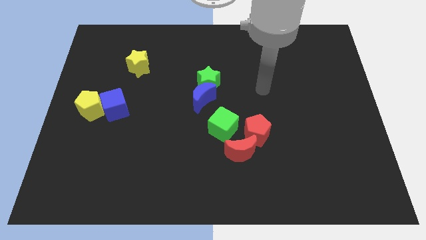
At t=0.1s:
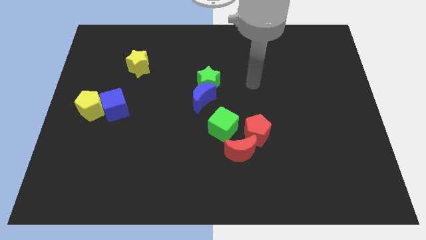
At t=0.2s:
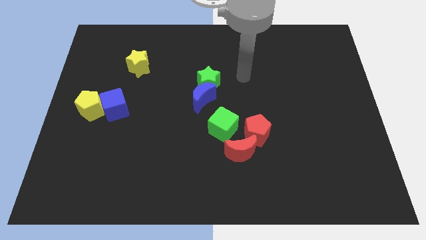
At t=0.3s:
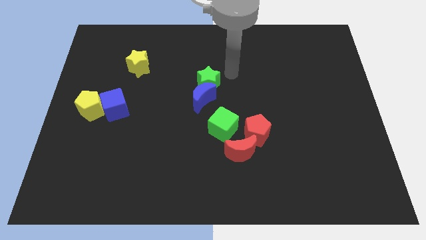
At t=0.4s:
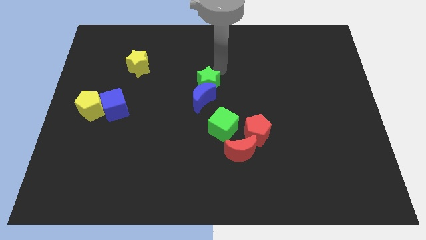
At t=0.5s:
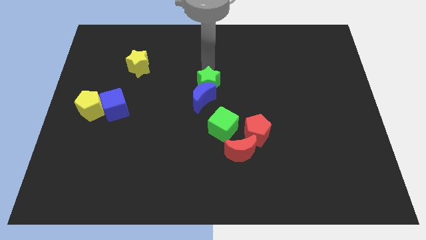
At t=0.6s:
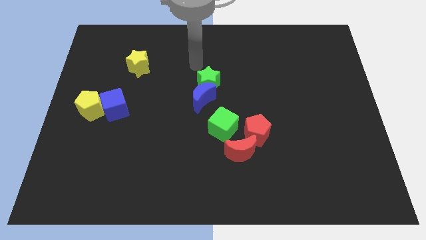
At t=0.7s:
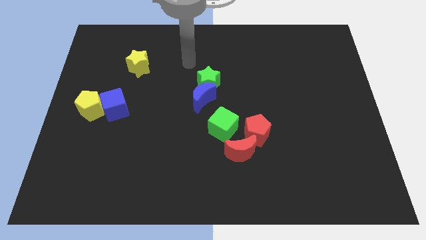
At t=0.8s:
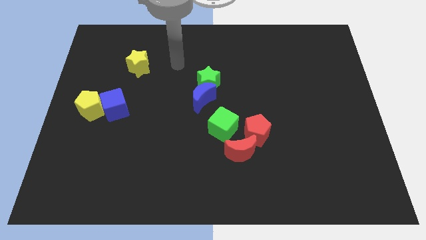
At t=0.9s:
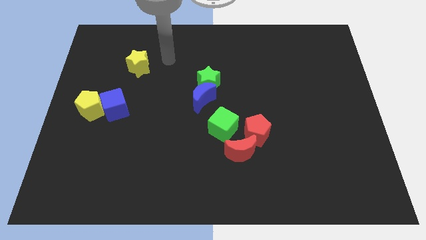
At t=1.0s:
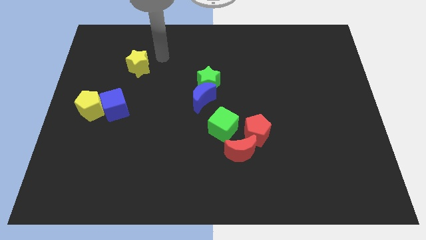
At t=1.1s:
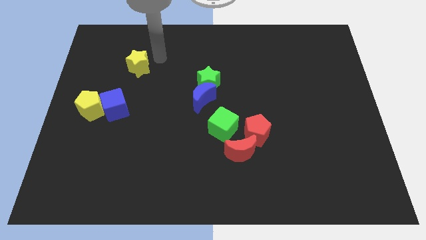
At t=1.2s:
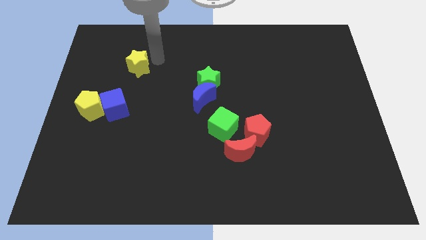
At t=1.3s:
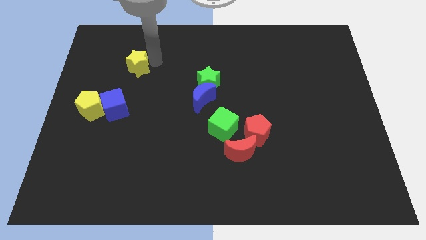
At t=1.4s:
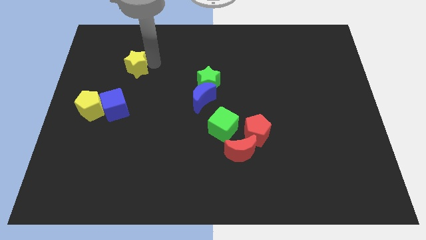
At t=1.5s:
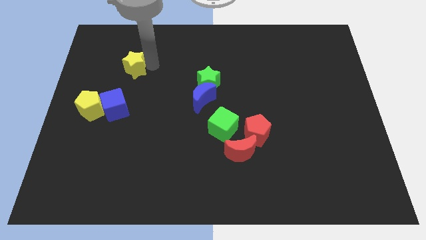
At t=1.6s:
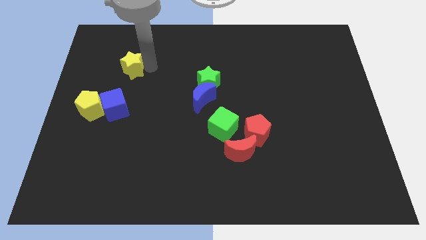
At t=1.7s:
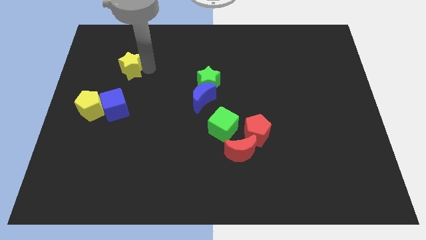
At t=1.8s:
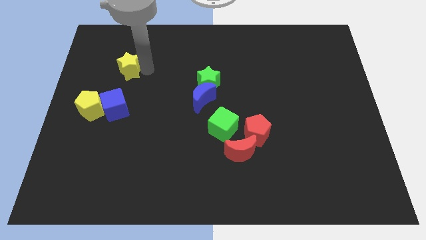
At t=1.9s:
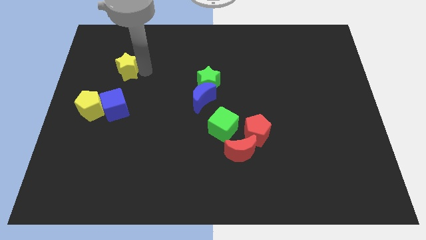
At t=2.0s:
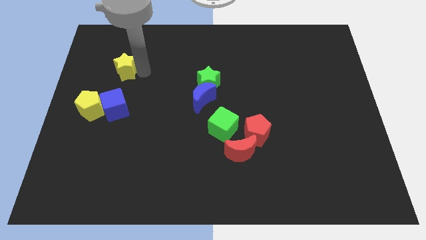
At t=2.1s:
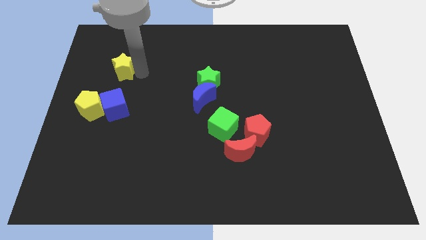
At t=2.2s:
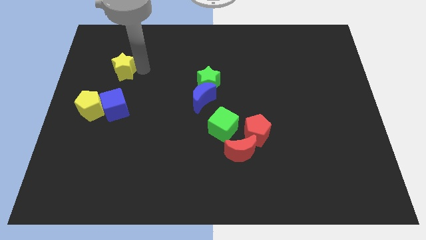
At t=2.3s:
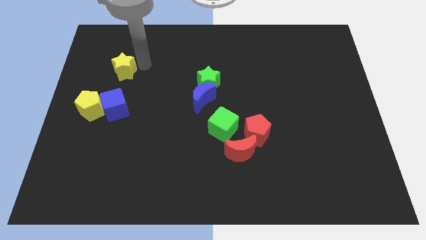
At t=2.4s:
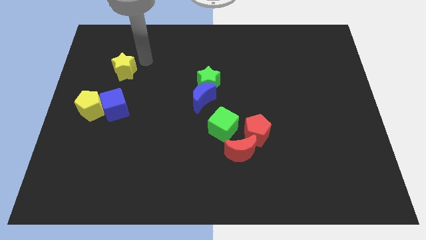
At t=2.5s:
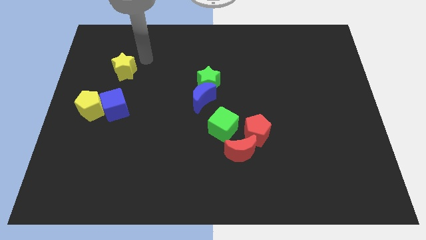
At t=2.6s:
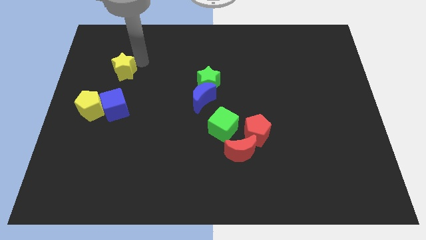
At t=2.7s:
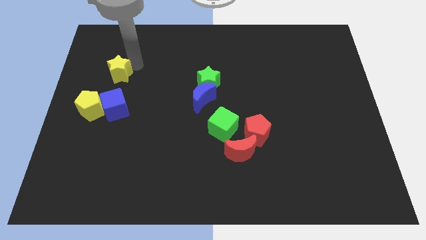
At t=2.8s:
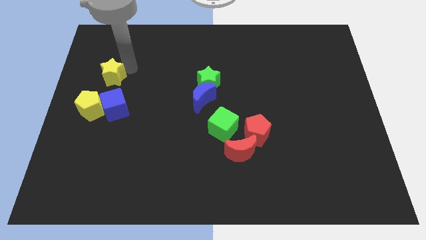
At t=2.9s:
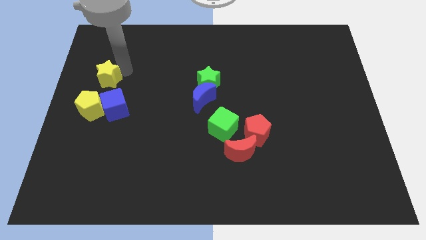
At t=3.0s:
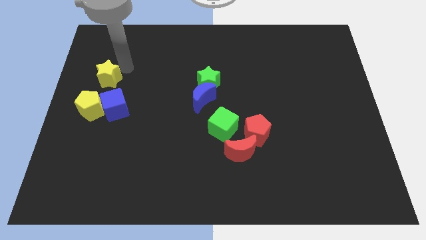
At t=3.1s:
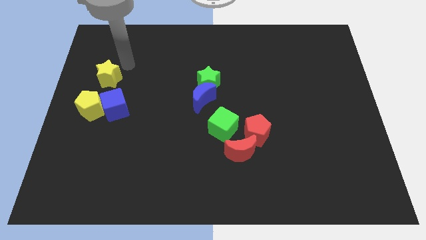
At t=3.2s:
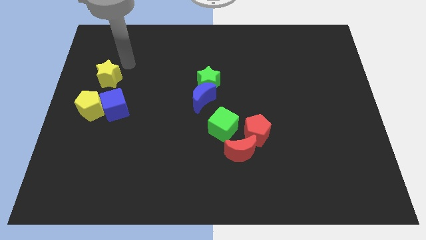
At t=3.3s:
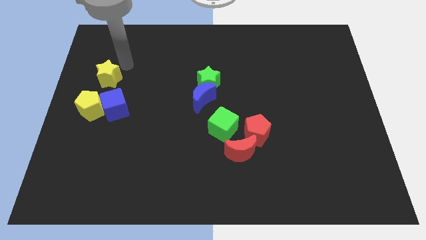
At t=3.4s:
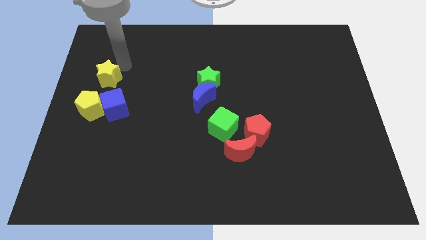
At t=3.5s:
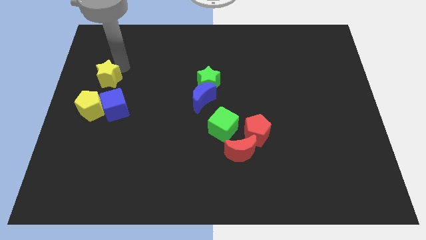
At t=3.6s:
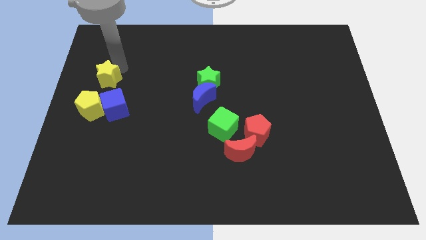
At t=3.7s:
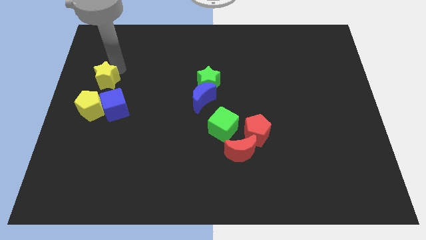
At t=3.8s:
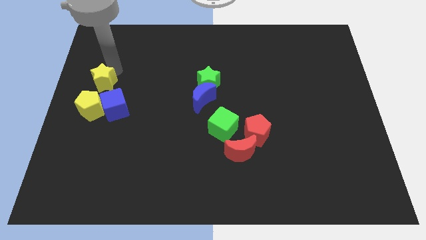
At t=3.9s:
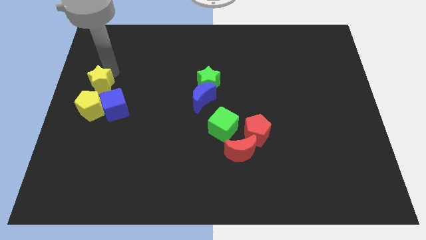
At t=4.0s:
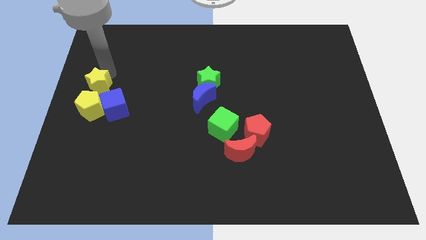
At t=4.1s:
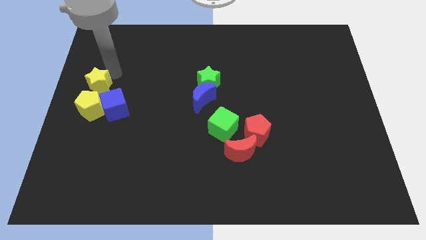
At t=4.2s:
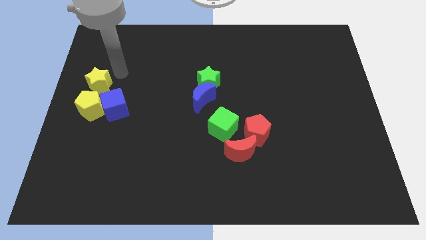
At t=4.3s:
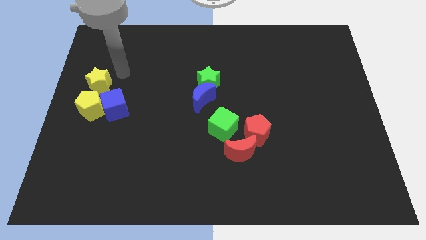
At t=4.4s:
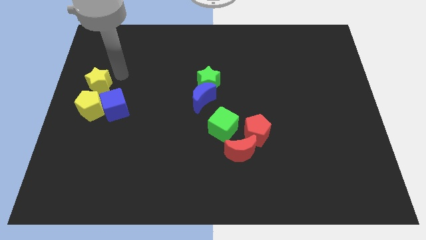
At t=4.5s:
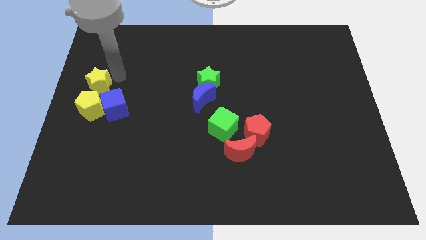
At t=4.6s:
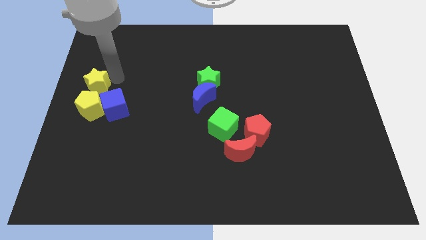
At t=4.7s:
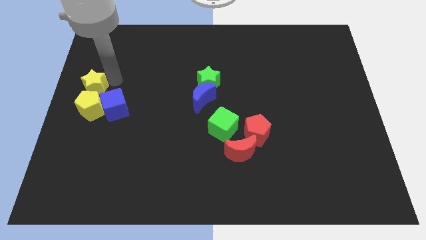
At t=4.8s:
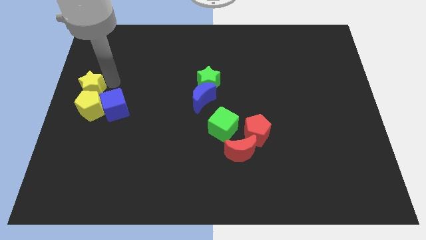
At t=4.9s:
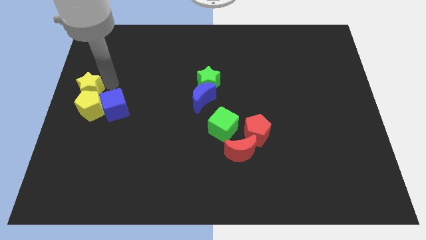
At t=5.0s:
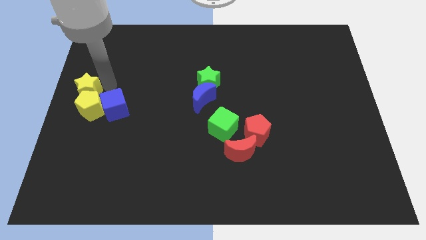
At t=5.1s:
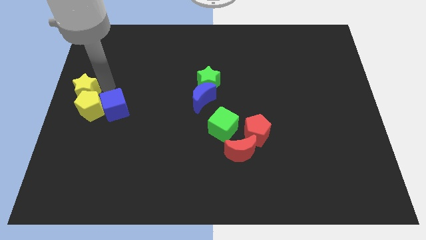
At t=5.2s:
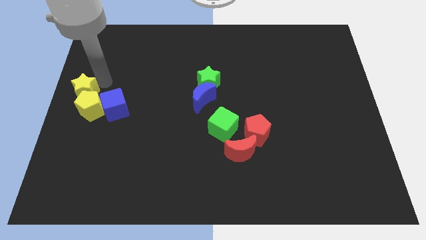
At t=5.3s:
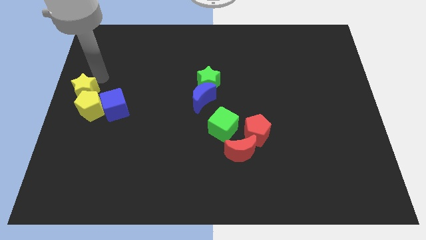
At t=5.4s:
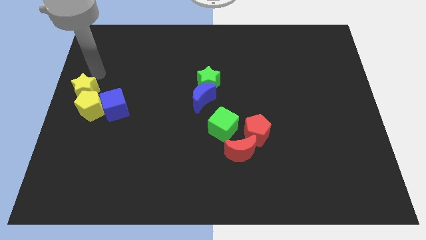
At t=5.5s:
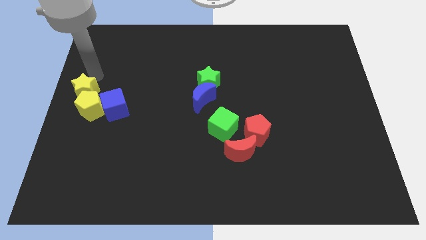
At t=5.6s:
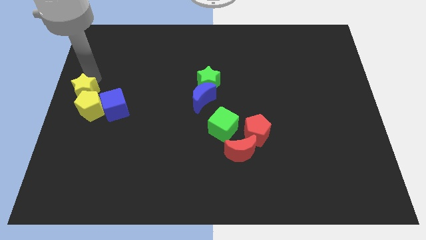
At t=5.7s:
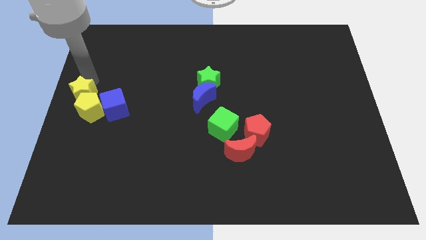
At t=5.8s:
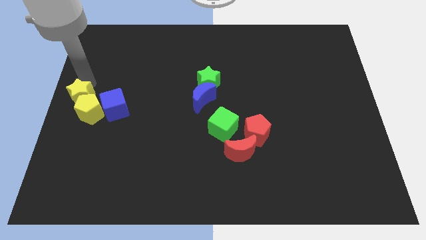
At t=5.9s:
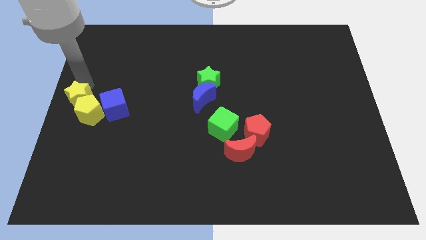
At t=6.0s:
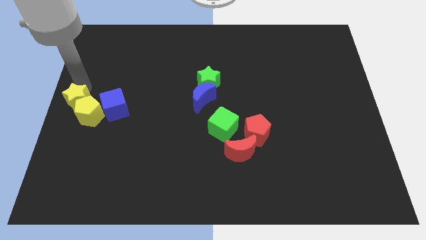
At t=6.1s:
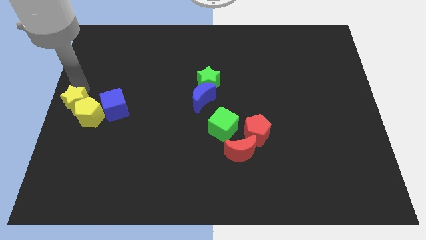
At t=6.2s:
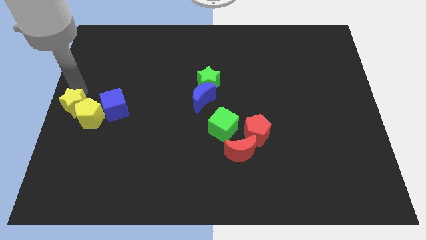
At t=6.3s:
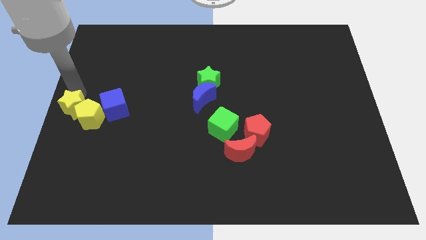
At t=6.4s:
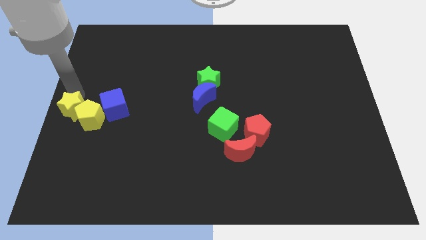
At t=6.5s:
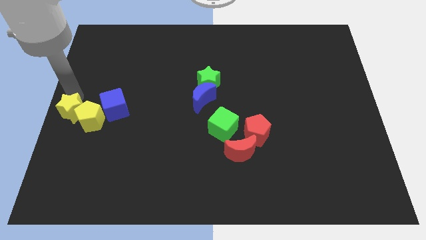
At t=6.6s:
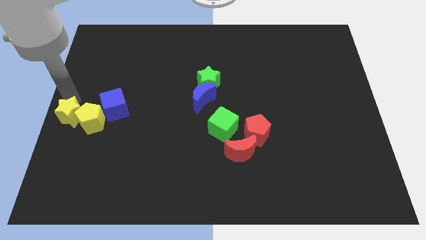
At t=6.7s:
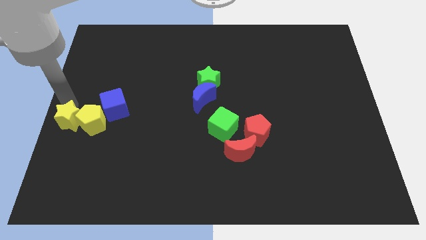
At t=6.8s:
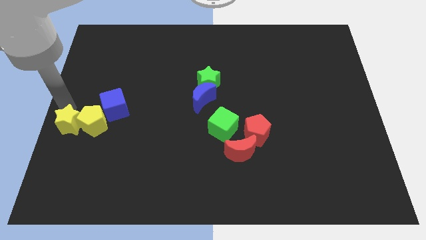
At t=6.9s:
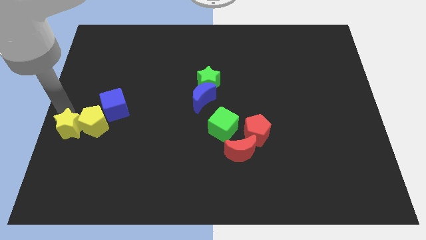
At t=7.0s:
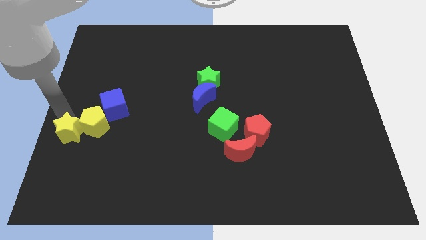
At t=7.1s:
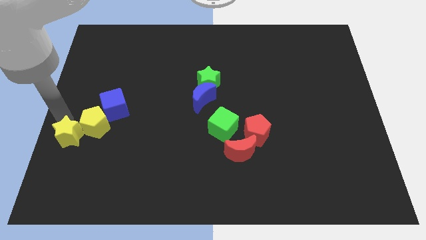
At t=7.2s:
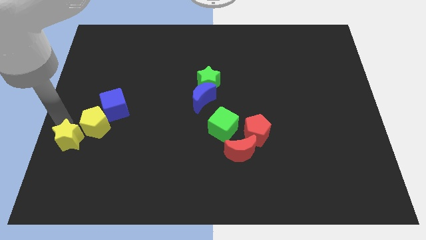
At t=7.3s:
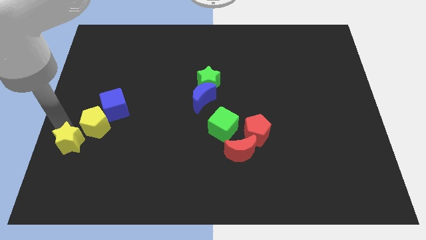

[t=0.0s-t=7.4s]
put the yellow star to the bottom side of the yellow pentagon
